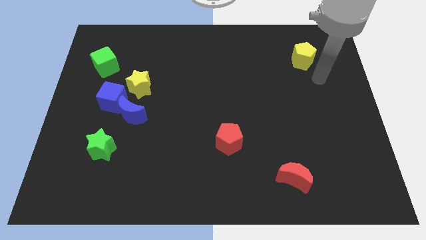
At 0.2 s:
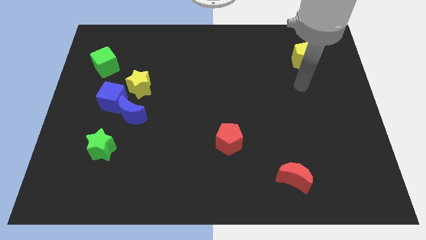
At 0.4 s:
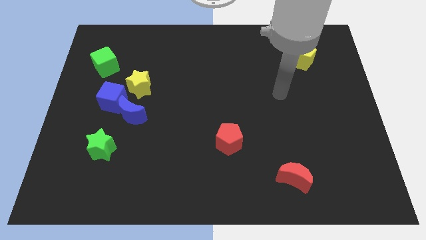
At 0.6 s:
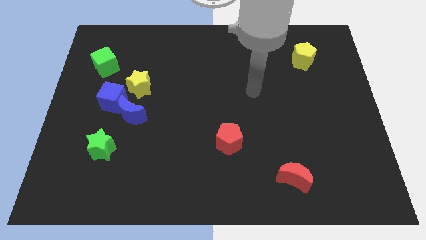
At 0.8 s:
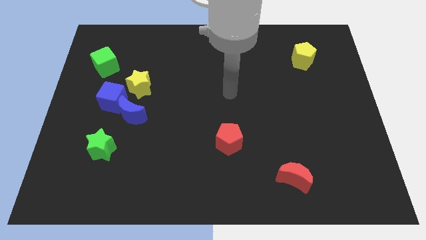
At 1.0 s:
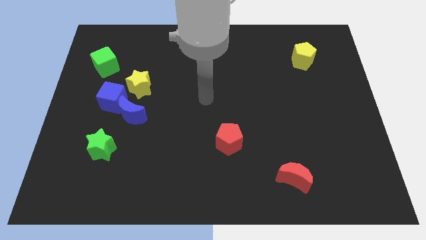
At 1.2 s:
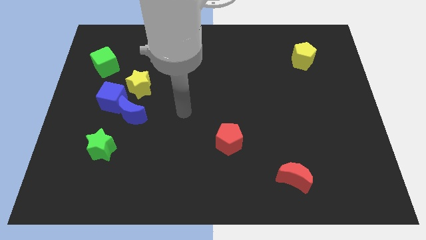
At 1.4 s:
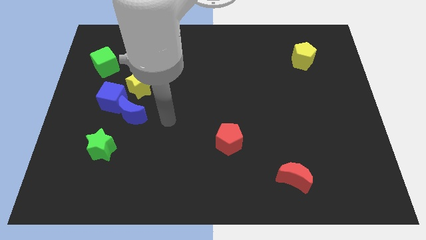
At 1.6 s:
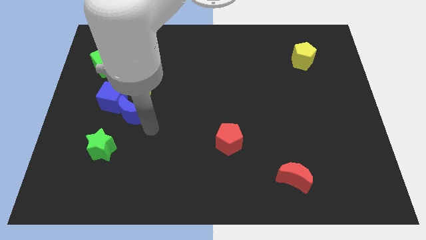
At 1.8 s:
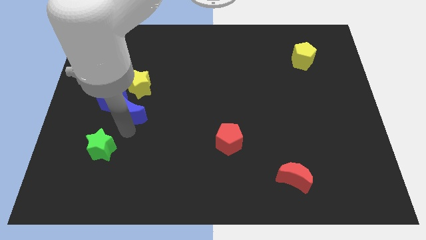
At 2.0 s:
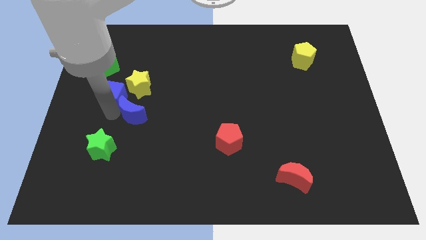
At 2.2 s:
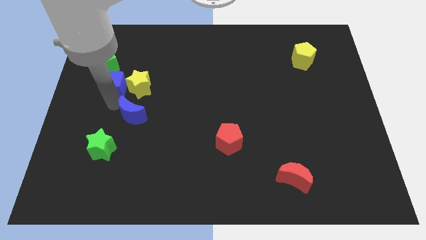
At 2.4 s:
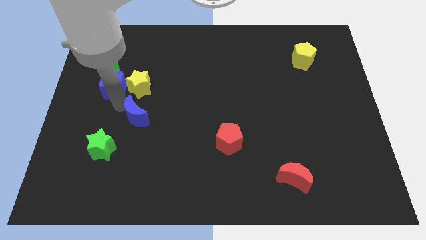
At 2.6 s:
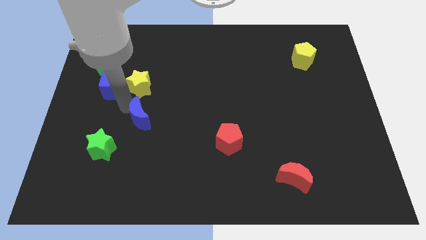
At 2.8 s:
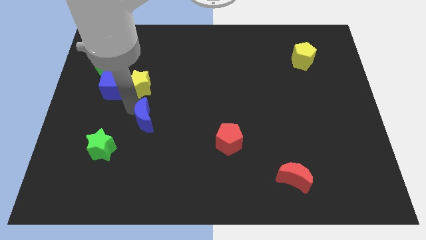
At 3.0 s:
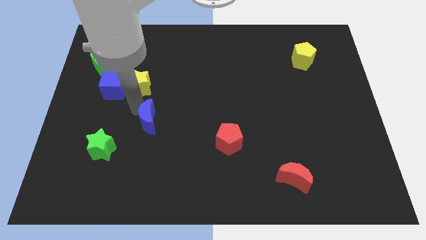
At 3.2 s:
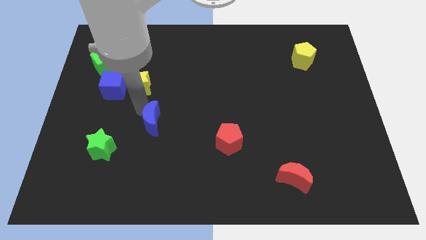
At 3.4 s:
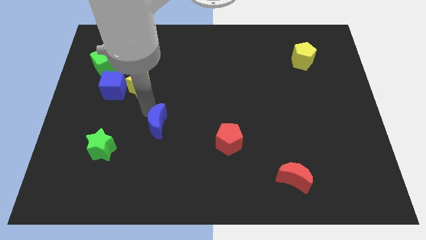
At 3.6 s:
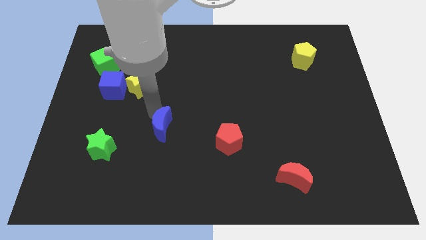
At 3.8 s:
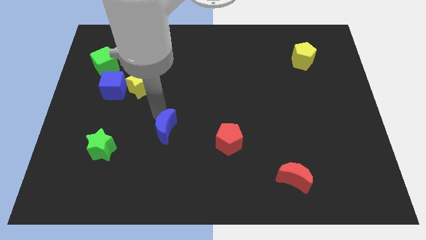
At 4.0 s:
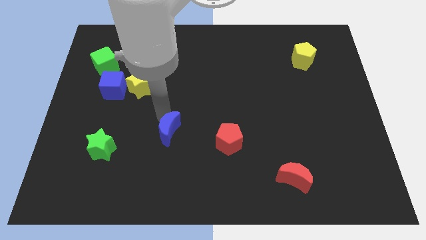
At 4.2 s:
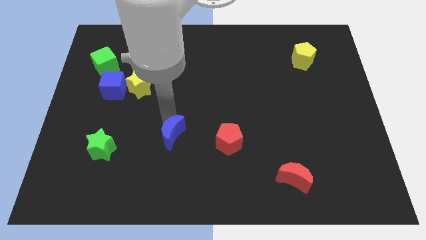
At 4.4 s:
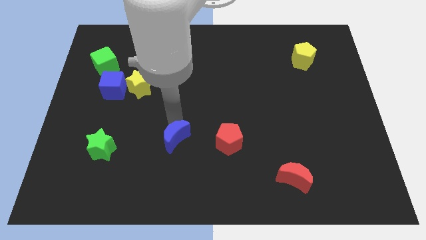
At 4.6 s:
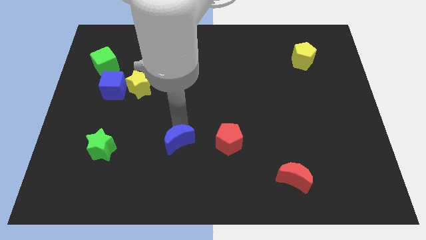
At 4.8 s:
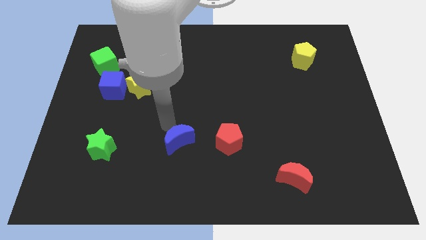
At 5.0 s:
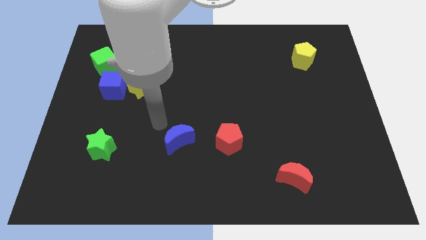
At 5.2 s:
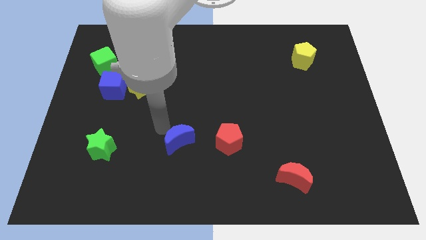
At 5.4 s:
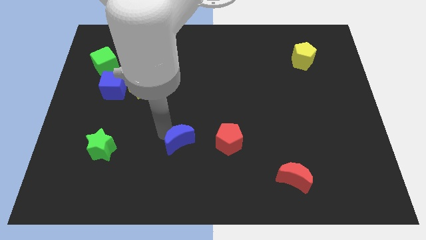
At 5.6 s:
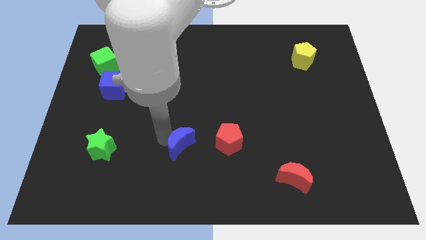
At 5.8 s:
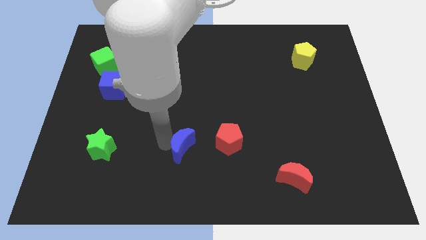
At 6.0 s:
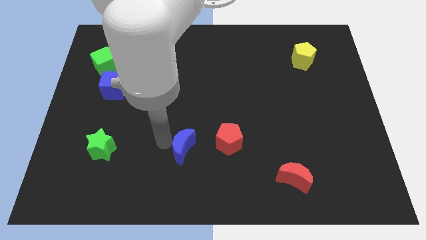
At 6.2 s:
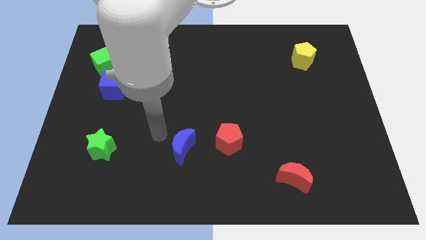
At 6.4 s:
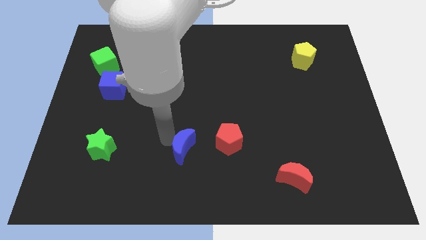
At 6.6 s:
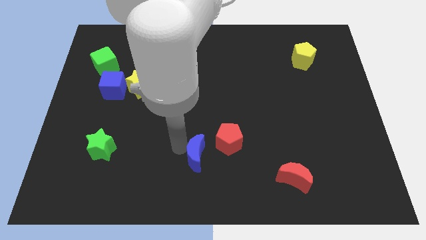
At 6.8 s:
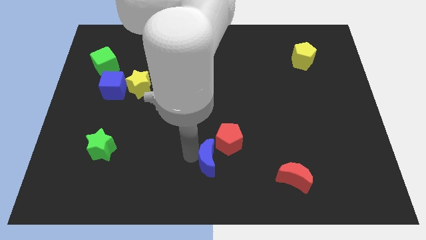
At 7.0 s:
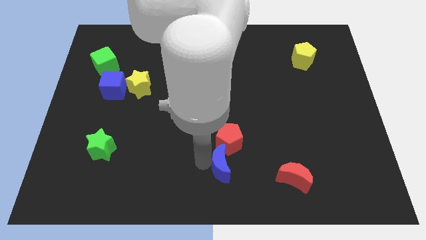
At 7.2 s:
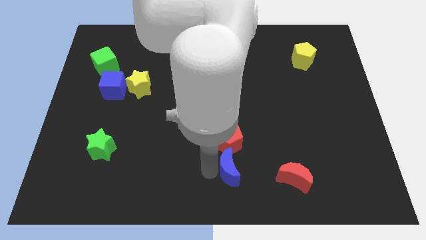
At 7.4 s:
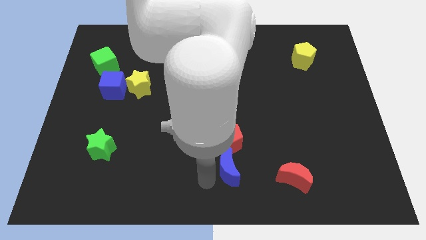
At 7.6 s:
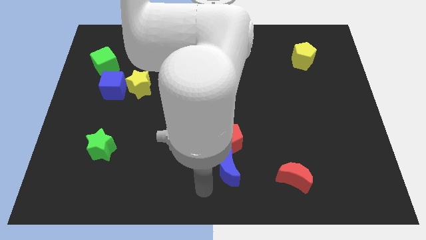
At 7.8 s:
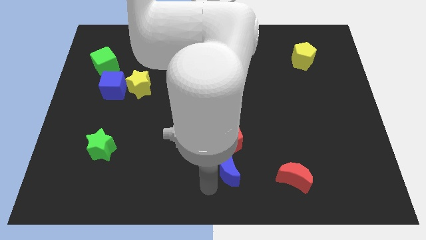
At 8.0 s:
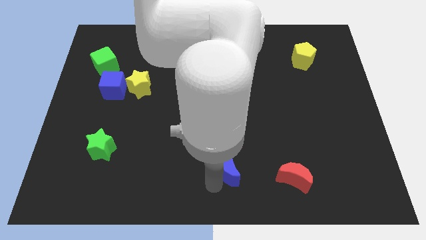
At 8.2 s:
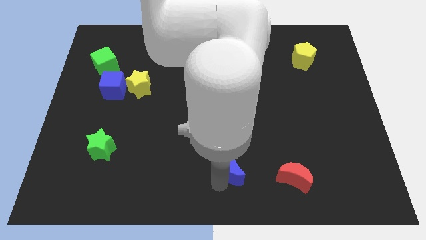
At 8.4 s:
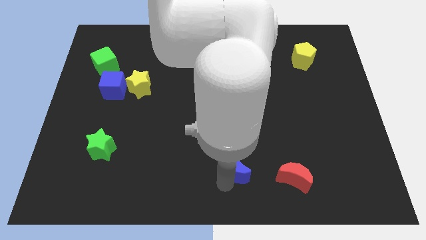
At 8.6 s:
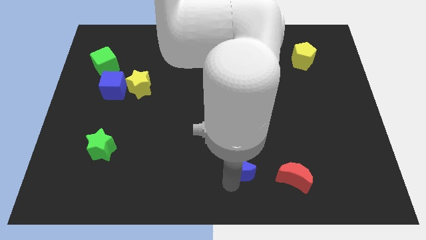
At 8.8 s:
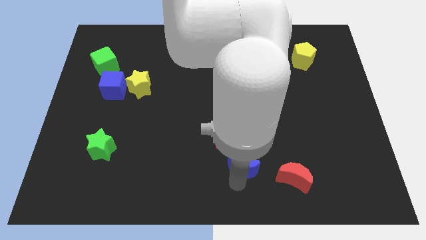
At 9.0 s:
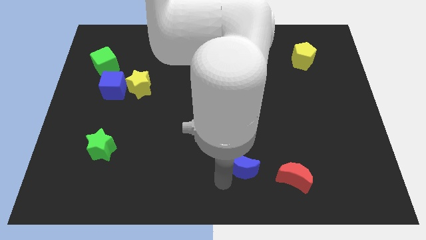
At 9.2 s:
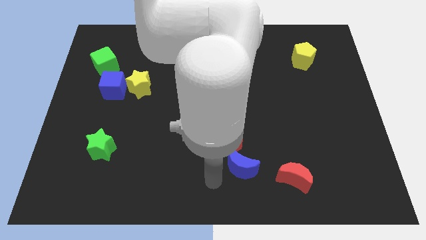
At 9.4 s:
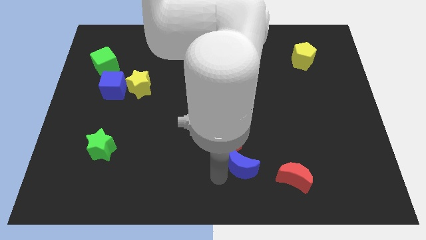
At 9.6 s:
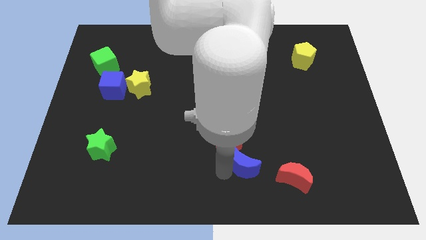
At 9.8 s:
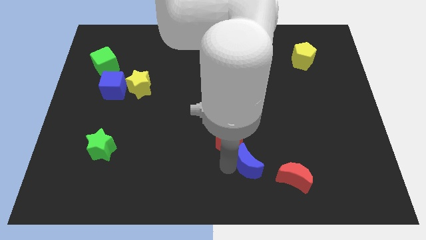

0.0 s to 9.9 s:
slide the blue moon to the top left of the red moon

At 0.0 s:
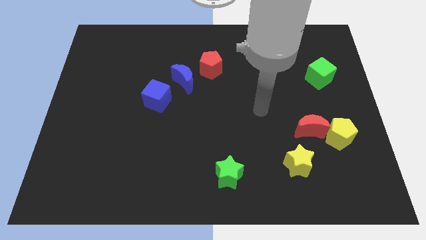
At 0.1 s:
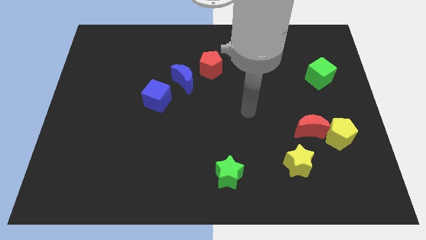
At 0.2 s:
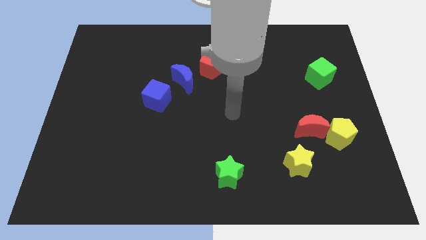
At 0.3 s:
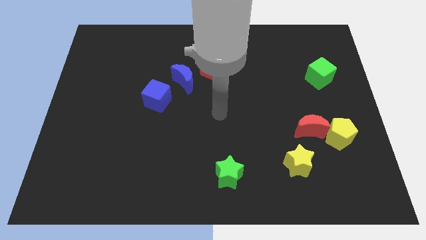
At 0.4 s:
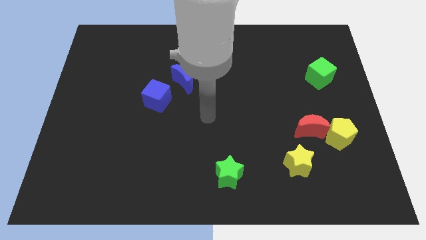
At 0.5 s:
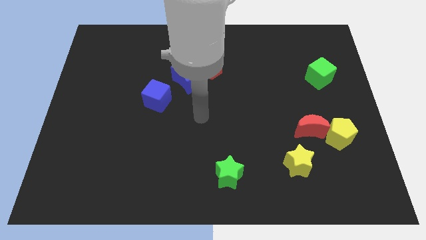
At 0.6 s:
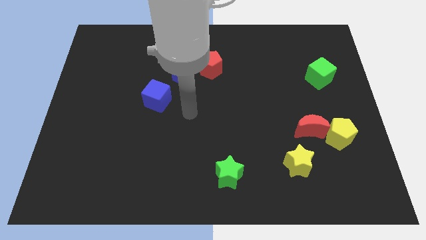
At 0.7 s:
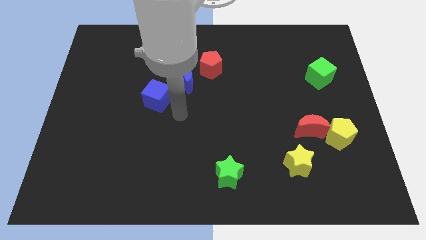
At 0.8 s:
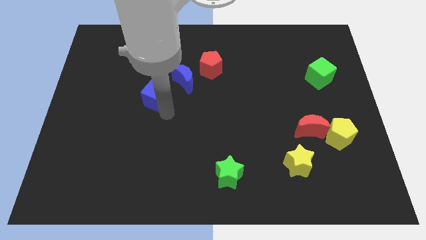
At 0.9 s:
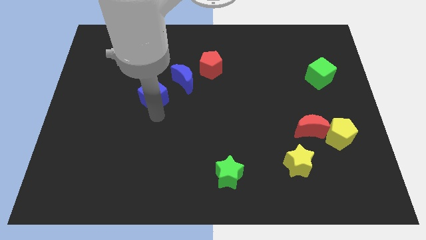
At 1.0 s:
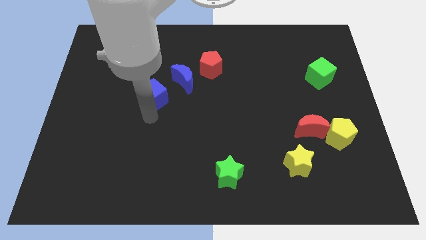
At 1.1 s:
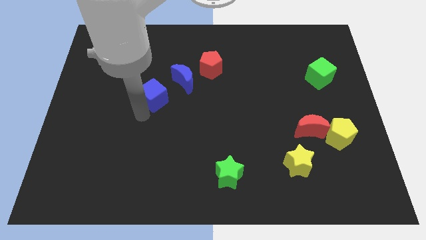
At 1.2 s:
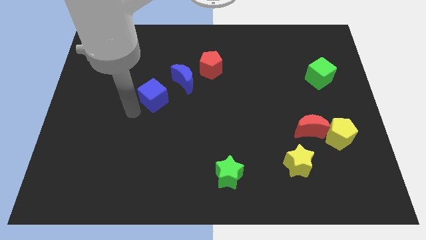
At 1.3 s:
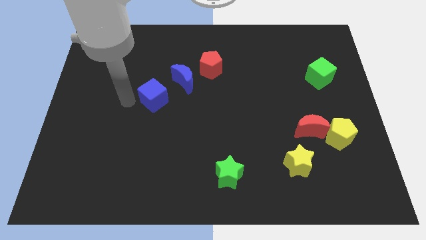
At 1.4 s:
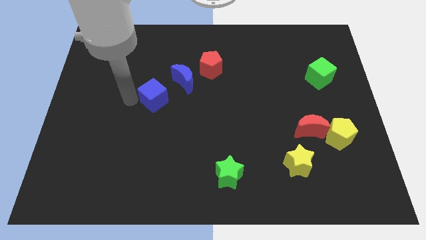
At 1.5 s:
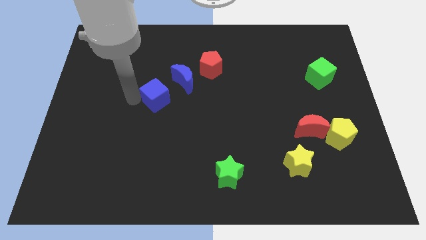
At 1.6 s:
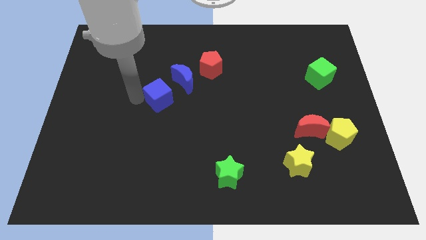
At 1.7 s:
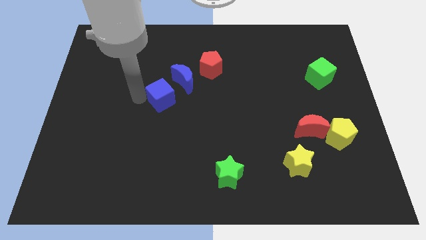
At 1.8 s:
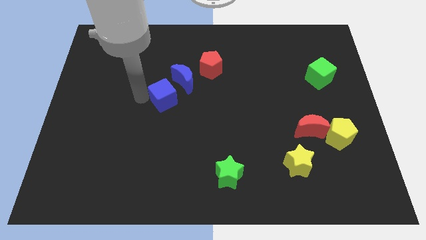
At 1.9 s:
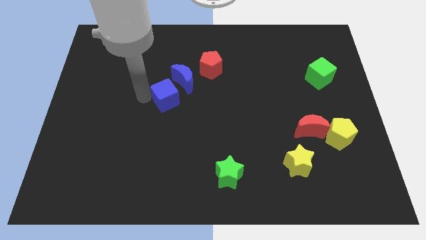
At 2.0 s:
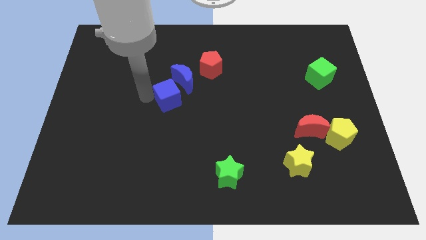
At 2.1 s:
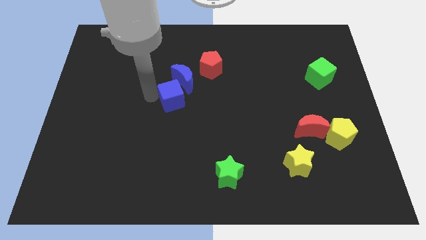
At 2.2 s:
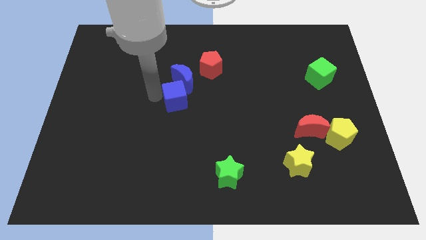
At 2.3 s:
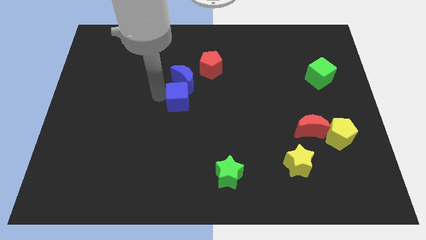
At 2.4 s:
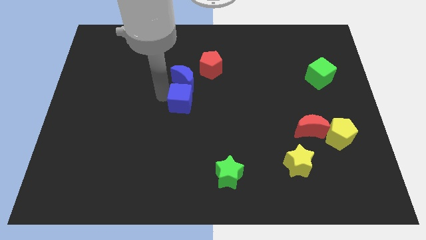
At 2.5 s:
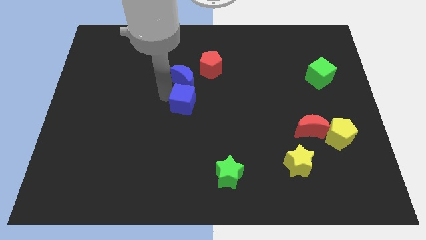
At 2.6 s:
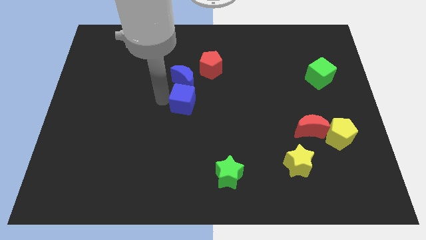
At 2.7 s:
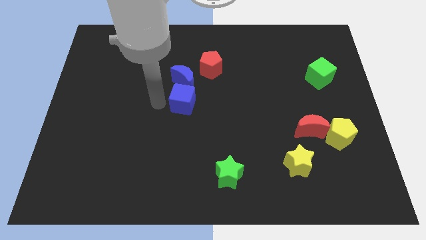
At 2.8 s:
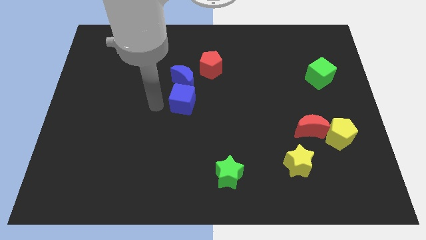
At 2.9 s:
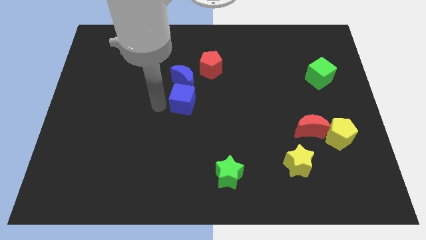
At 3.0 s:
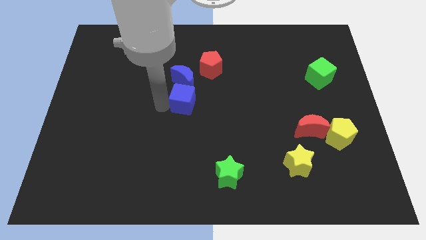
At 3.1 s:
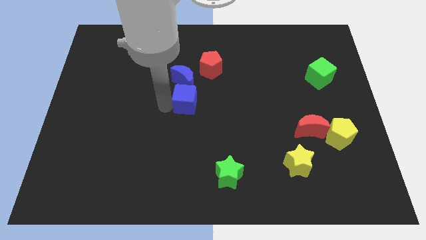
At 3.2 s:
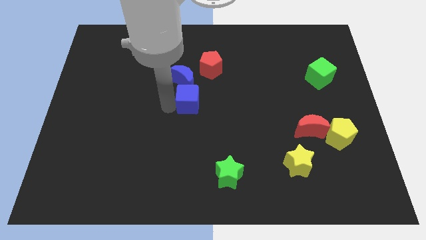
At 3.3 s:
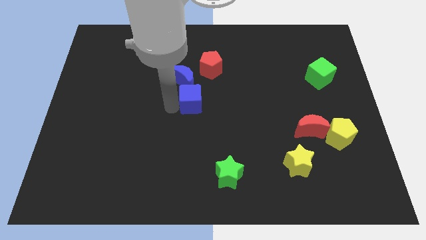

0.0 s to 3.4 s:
put the blue cube below the red pentagon
